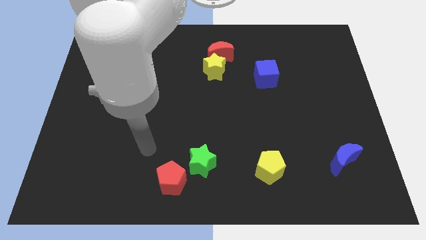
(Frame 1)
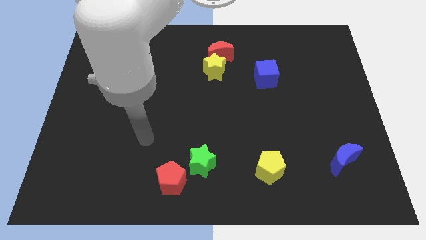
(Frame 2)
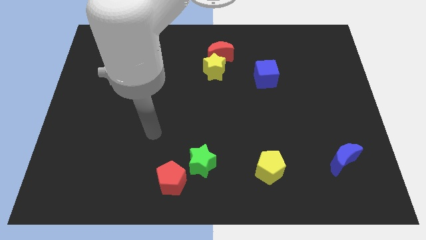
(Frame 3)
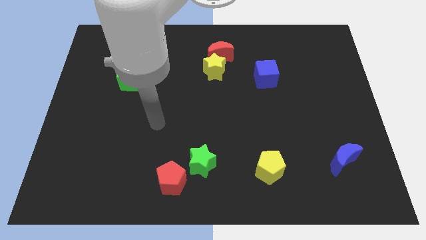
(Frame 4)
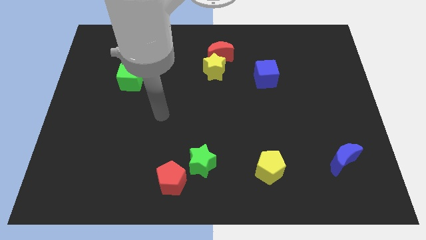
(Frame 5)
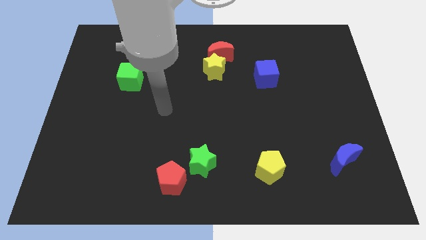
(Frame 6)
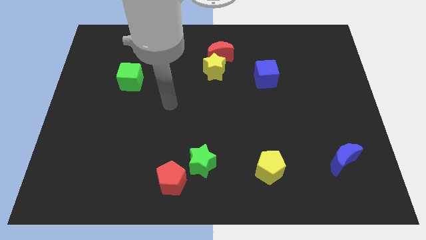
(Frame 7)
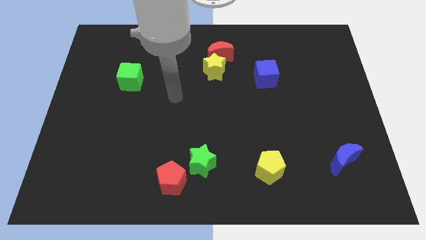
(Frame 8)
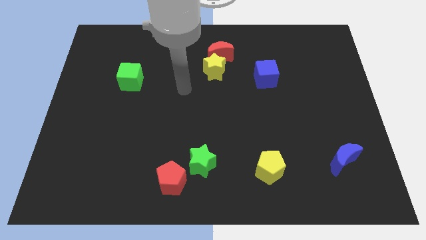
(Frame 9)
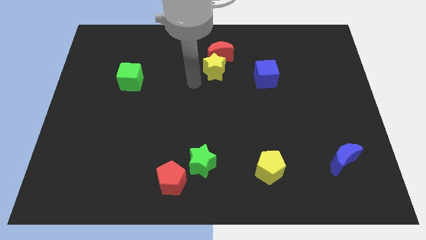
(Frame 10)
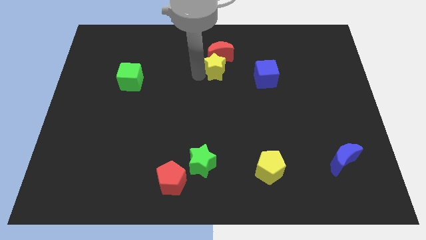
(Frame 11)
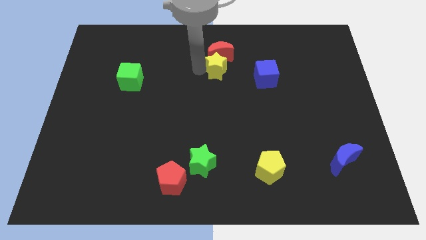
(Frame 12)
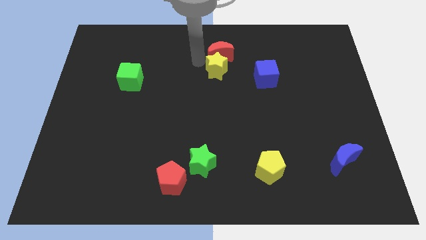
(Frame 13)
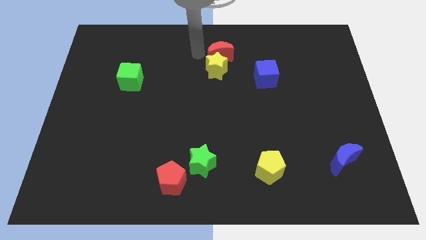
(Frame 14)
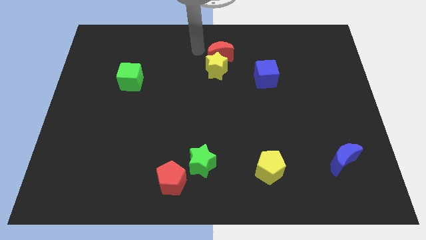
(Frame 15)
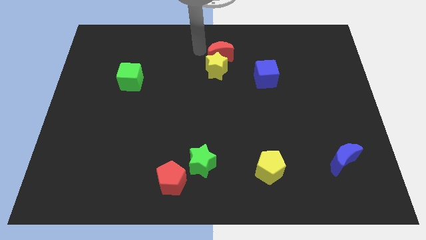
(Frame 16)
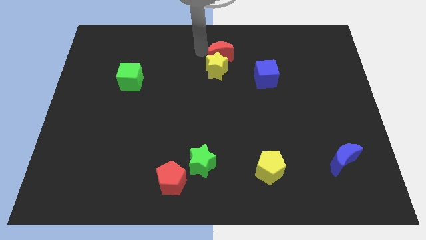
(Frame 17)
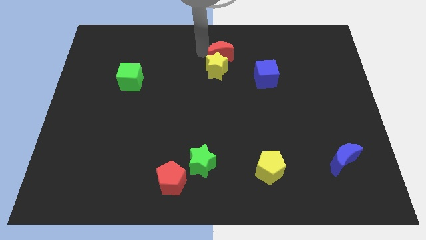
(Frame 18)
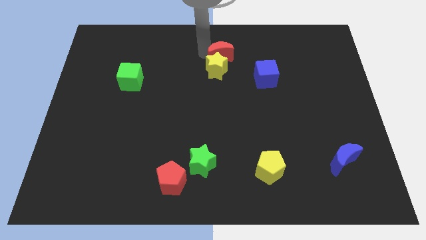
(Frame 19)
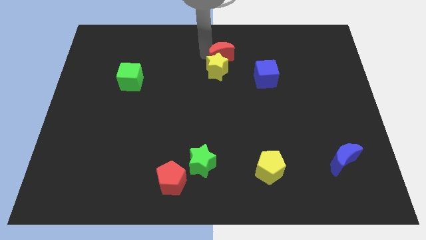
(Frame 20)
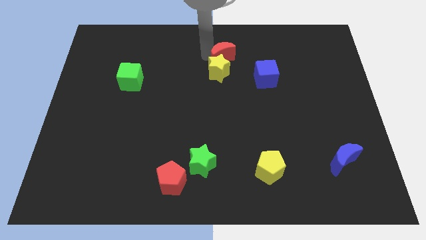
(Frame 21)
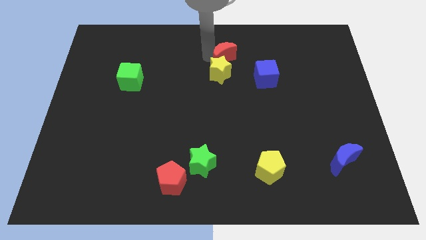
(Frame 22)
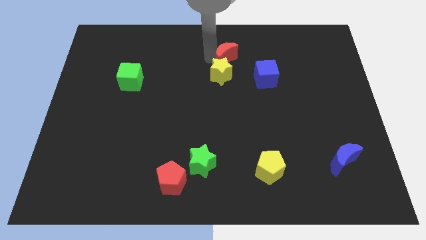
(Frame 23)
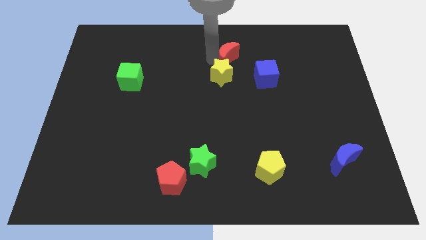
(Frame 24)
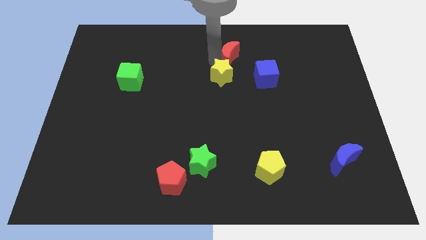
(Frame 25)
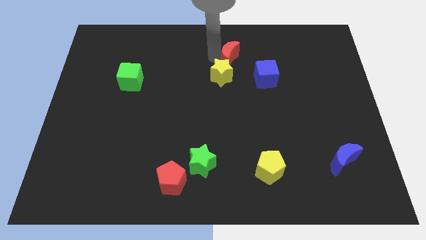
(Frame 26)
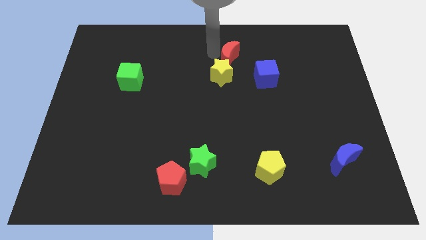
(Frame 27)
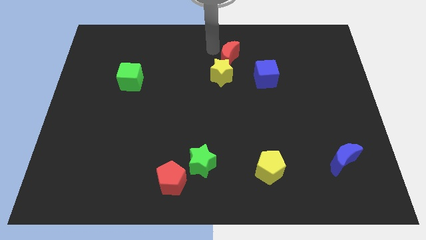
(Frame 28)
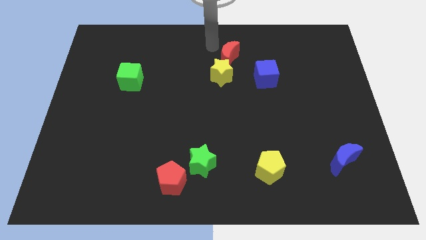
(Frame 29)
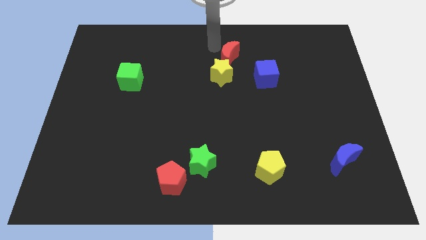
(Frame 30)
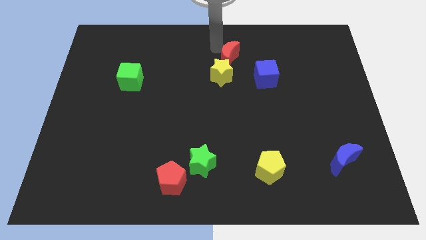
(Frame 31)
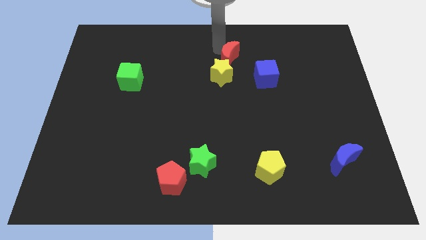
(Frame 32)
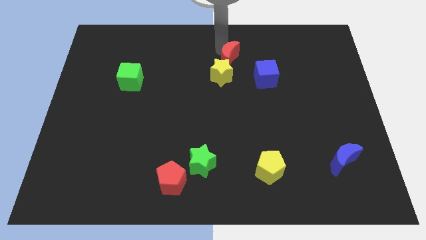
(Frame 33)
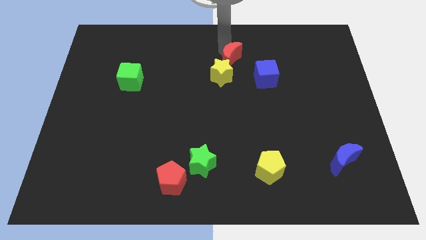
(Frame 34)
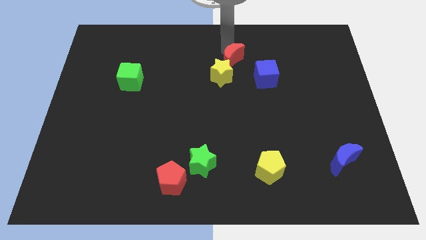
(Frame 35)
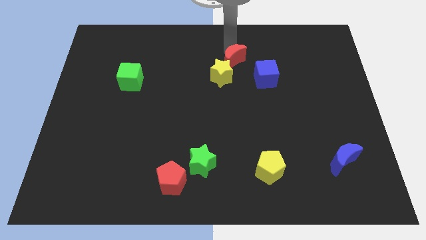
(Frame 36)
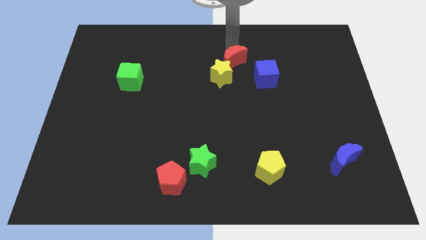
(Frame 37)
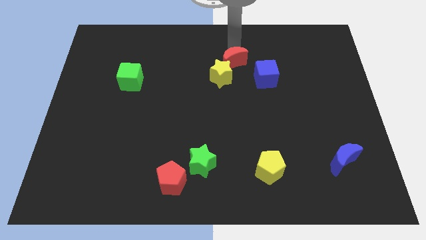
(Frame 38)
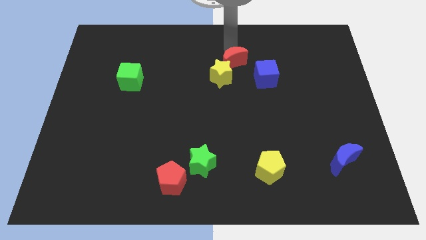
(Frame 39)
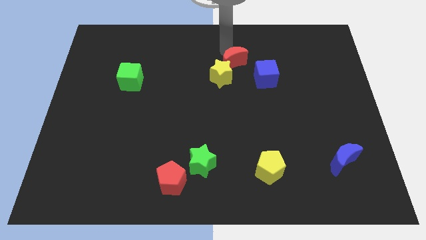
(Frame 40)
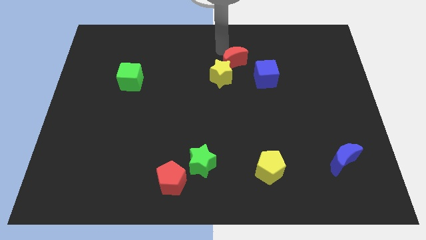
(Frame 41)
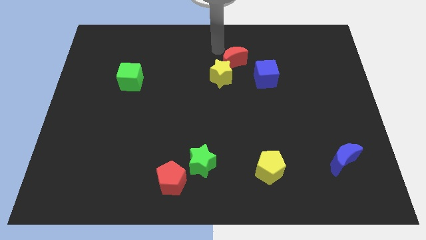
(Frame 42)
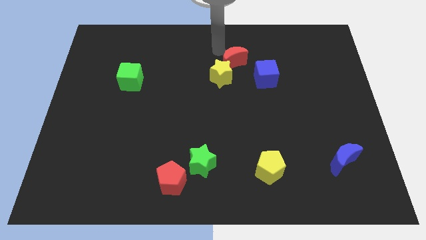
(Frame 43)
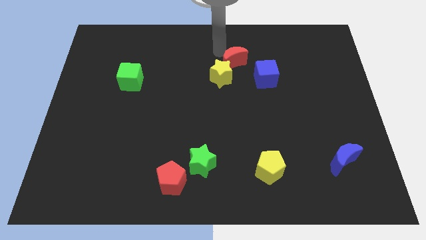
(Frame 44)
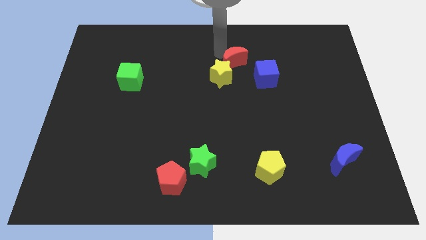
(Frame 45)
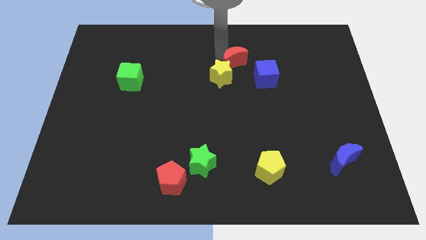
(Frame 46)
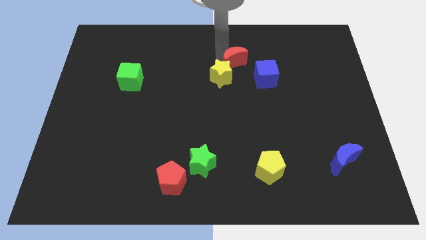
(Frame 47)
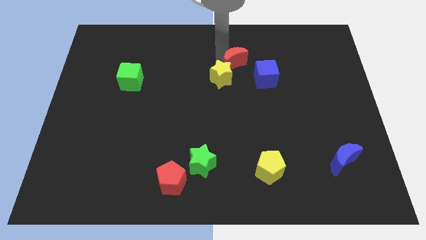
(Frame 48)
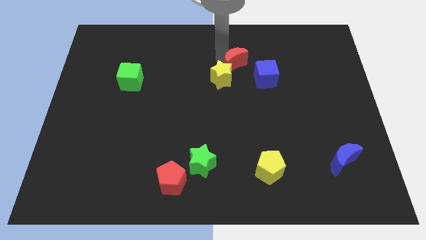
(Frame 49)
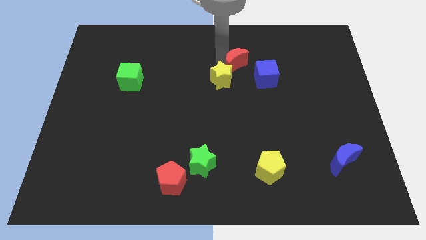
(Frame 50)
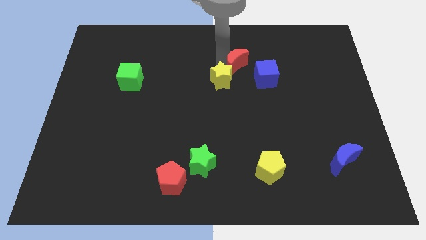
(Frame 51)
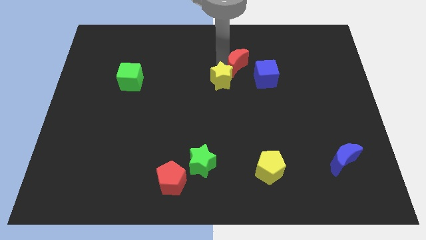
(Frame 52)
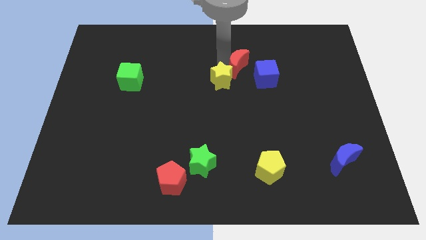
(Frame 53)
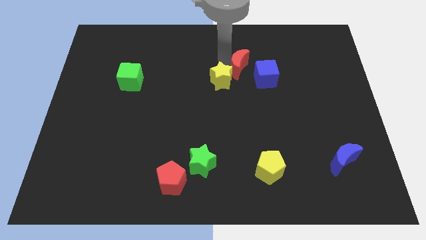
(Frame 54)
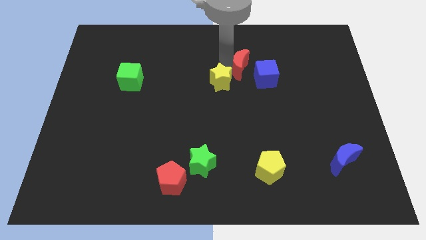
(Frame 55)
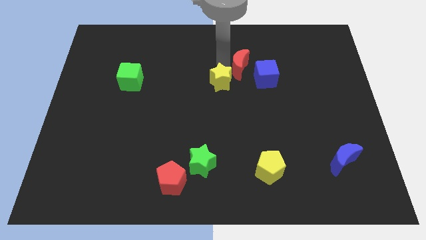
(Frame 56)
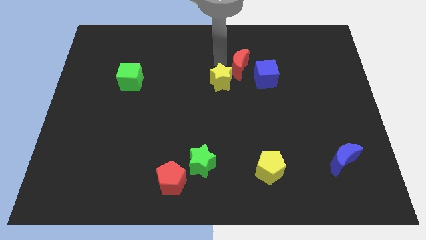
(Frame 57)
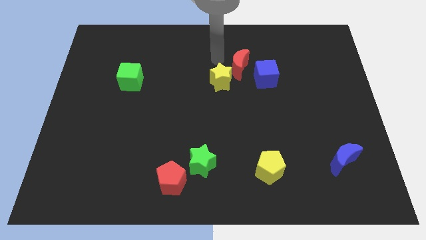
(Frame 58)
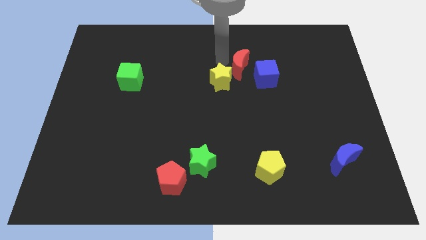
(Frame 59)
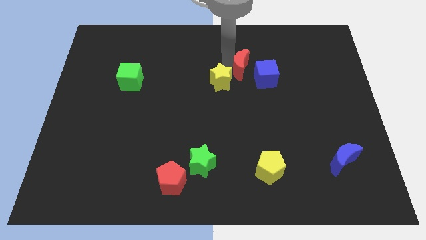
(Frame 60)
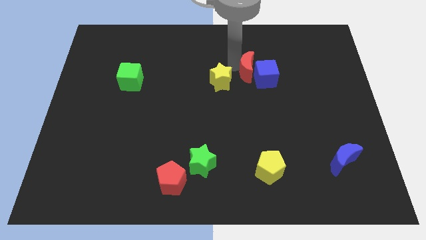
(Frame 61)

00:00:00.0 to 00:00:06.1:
slide the red moon close to the blue cube
